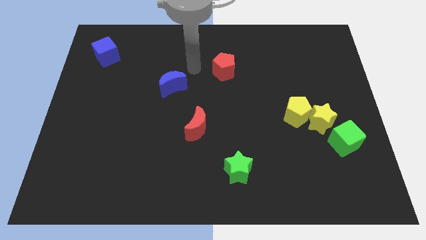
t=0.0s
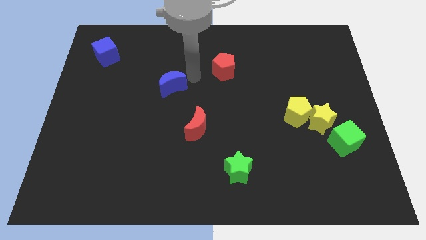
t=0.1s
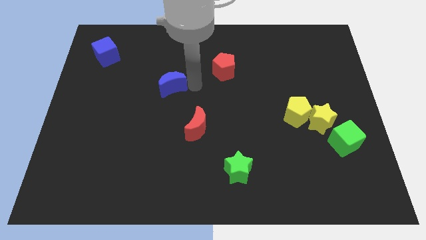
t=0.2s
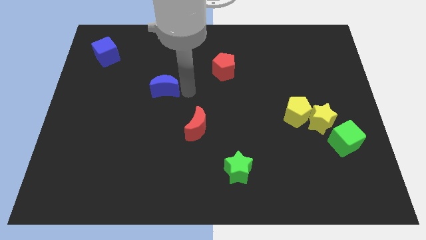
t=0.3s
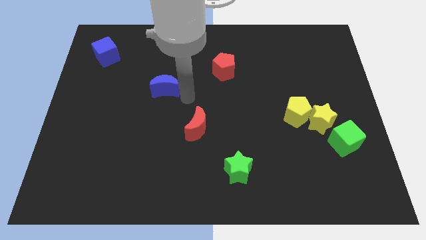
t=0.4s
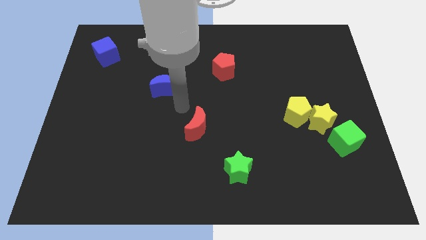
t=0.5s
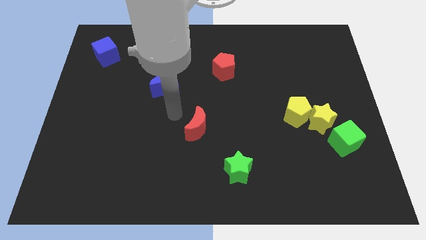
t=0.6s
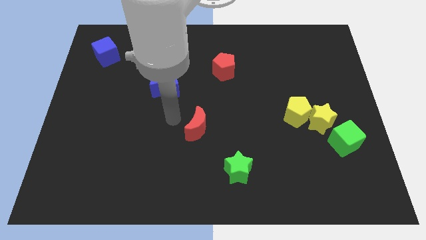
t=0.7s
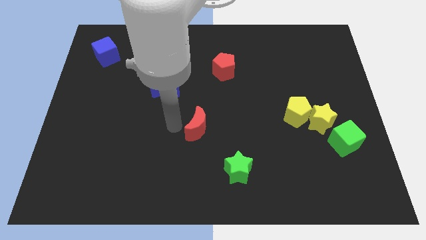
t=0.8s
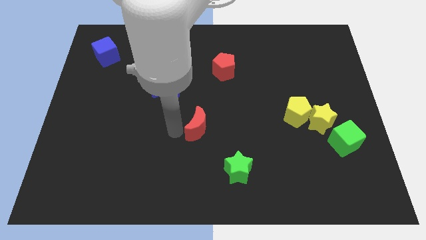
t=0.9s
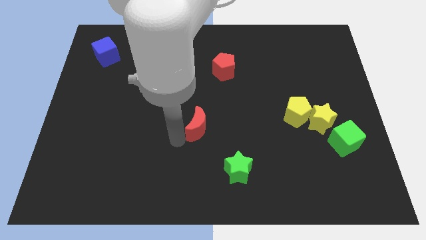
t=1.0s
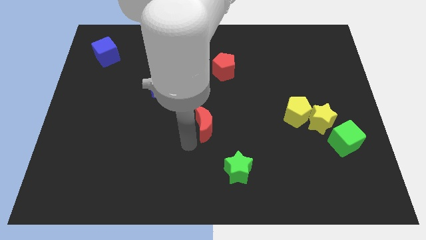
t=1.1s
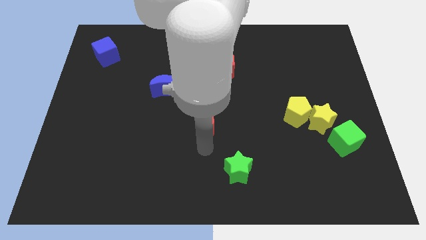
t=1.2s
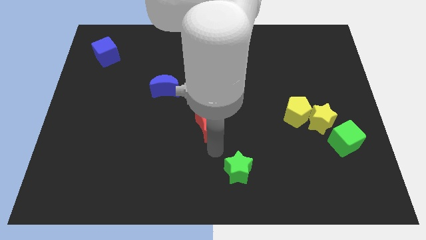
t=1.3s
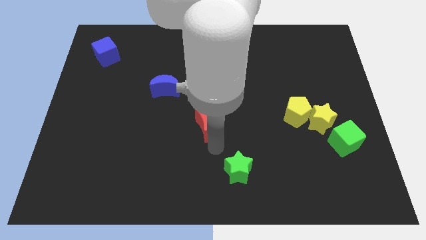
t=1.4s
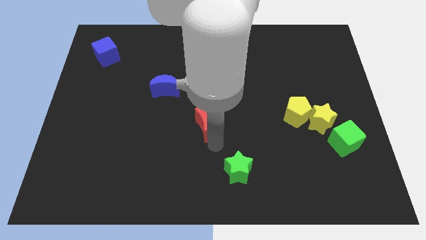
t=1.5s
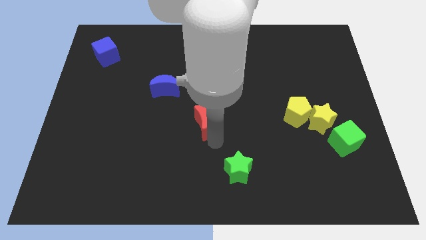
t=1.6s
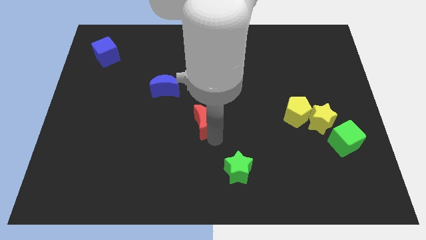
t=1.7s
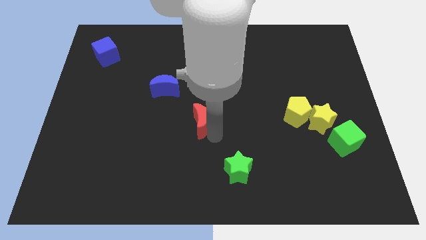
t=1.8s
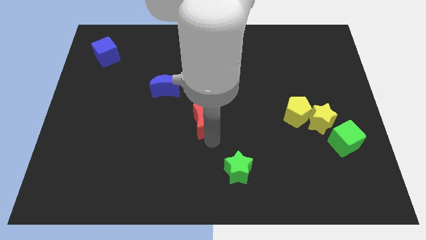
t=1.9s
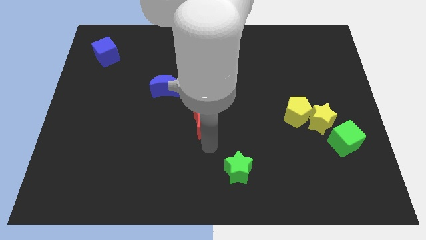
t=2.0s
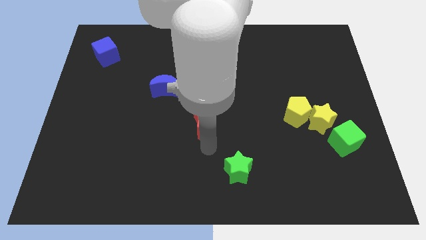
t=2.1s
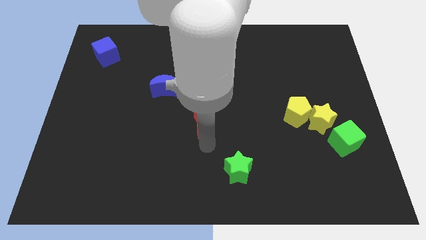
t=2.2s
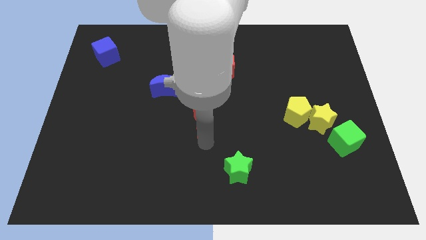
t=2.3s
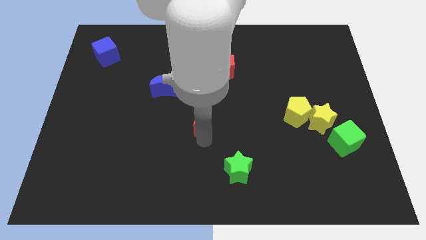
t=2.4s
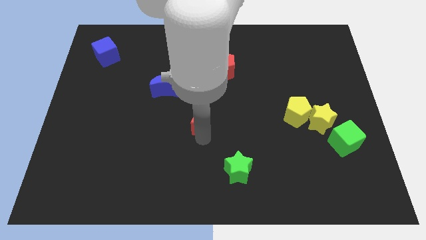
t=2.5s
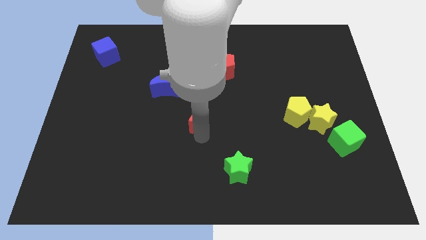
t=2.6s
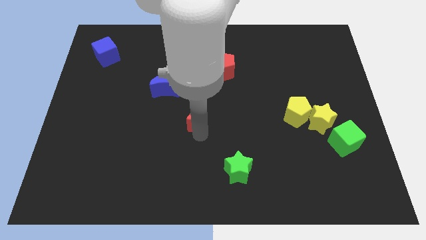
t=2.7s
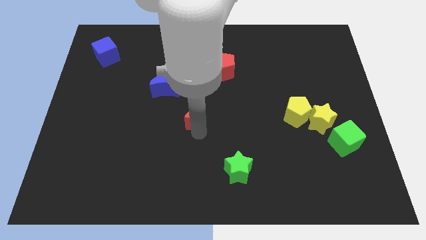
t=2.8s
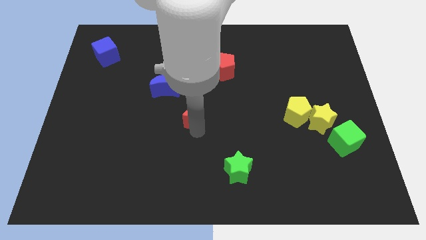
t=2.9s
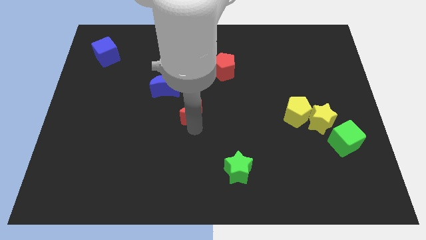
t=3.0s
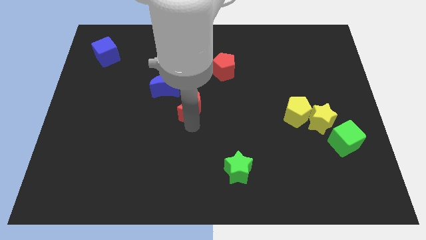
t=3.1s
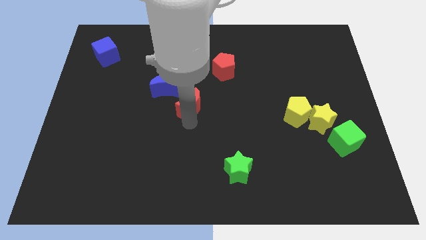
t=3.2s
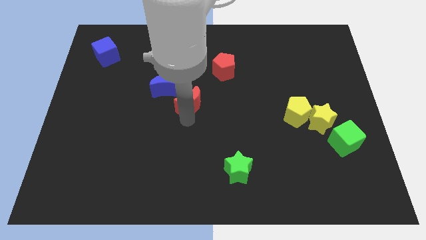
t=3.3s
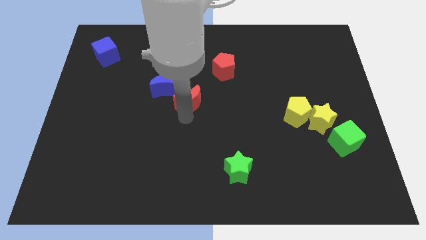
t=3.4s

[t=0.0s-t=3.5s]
move the red moon a little bit up

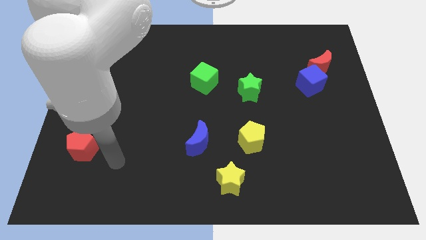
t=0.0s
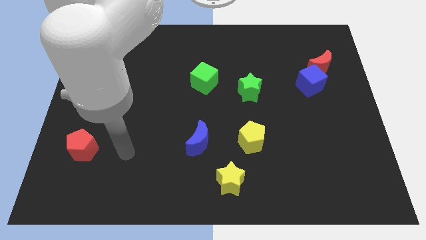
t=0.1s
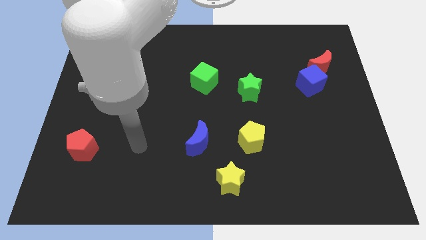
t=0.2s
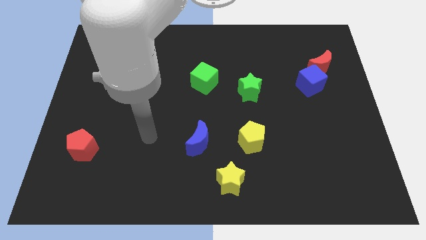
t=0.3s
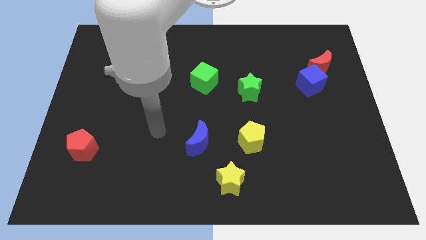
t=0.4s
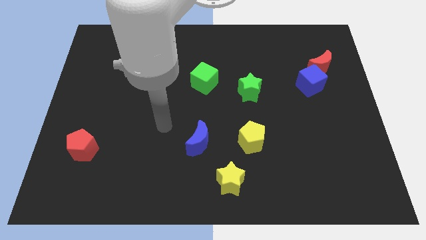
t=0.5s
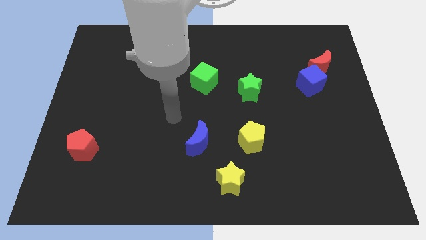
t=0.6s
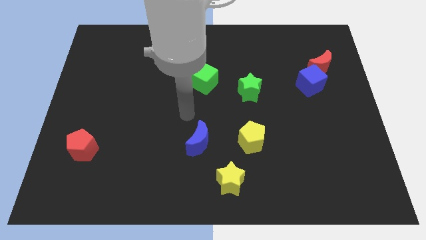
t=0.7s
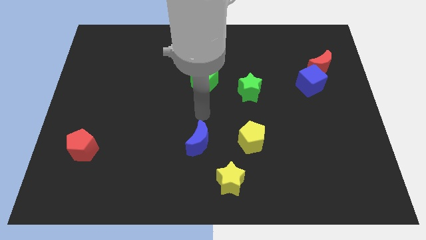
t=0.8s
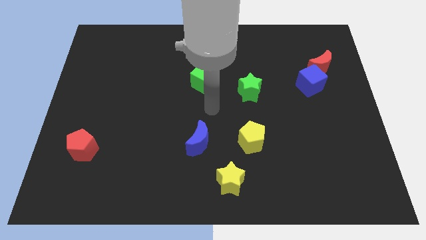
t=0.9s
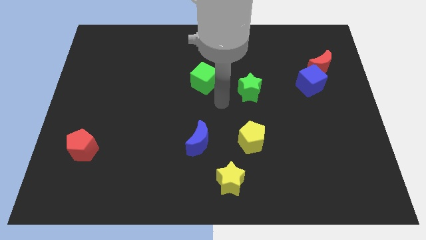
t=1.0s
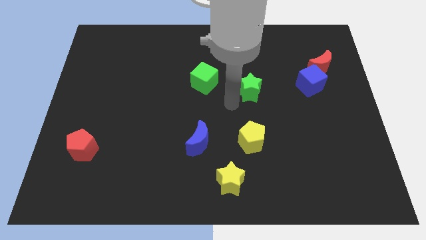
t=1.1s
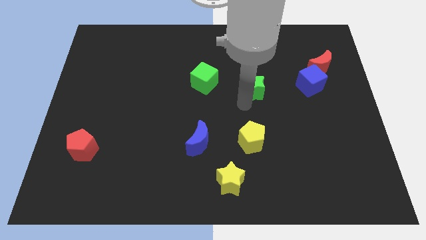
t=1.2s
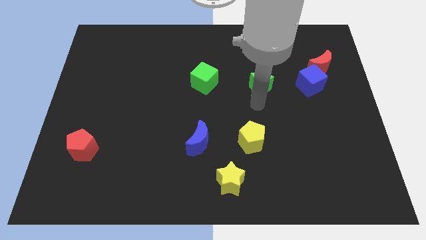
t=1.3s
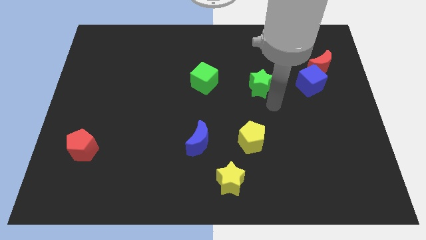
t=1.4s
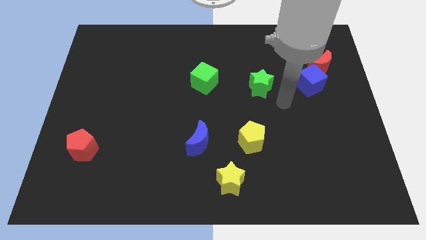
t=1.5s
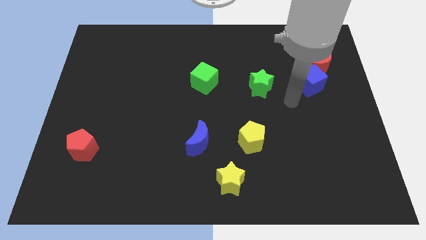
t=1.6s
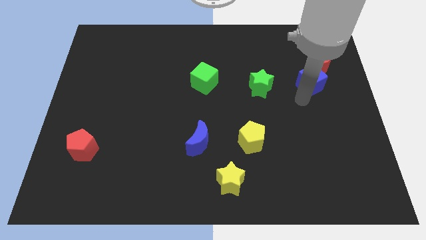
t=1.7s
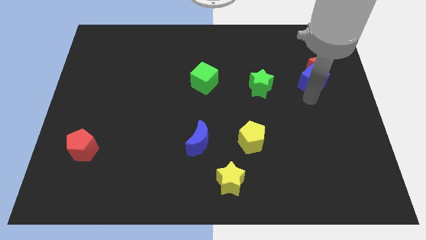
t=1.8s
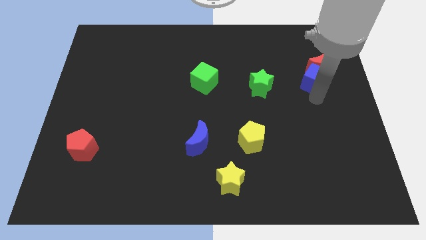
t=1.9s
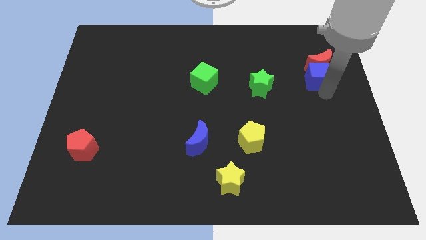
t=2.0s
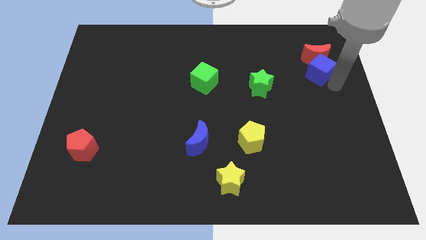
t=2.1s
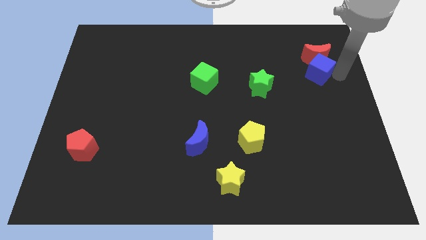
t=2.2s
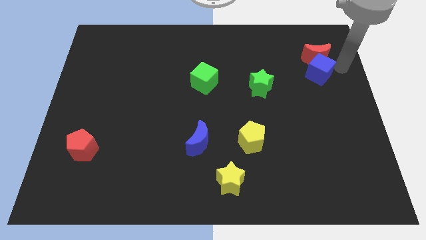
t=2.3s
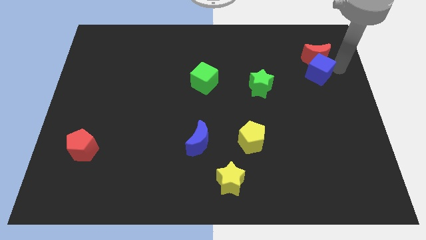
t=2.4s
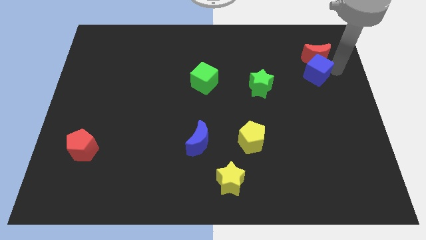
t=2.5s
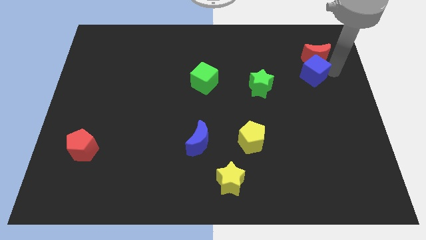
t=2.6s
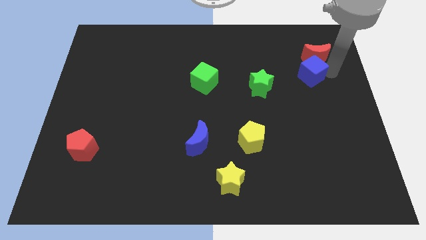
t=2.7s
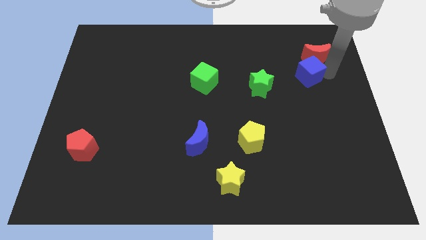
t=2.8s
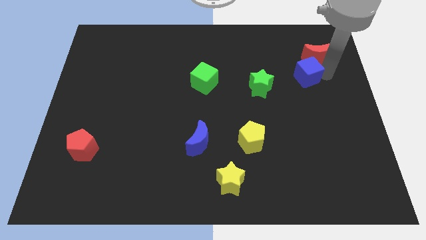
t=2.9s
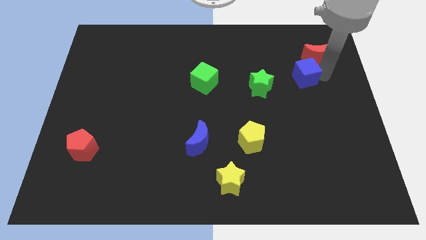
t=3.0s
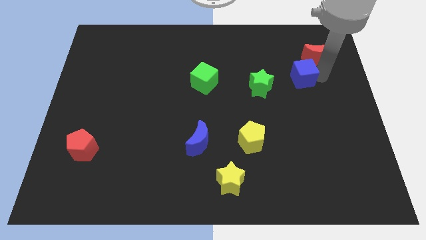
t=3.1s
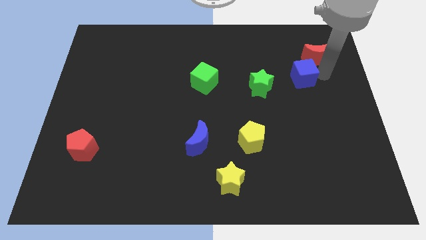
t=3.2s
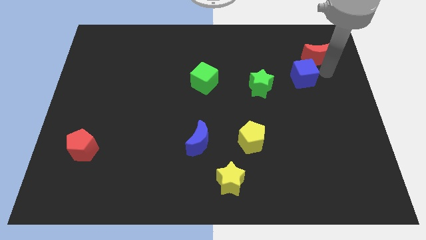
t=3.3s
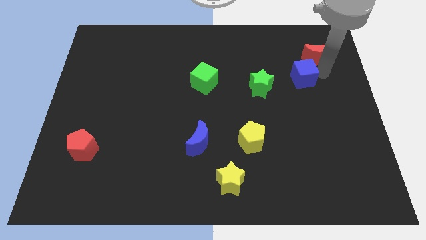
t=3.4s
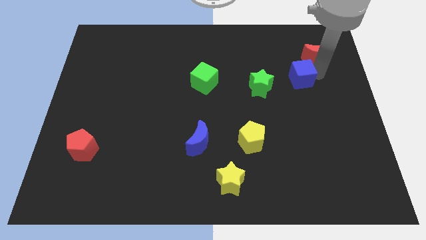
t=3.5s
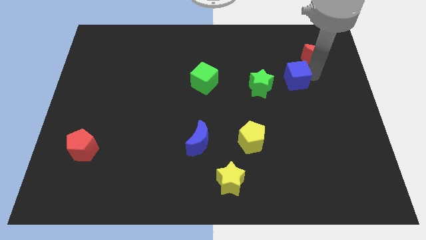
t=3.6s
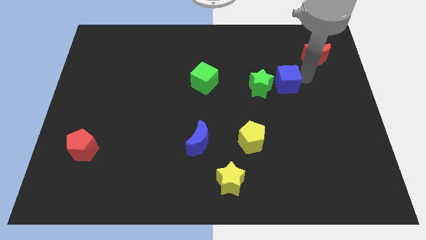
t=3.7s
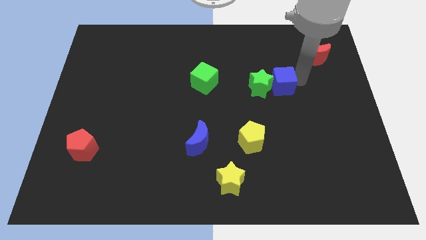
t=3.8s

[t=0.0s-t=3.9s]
move the blue cube to the left a little bit

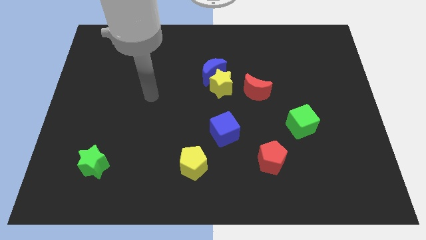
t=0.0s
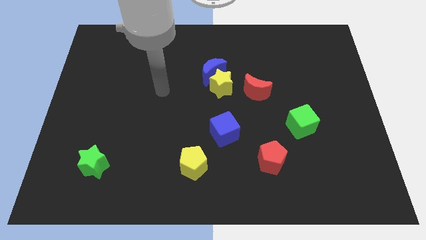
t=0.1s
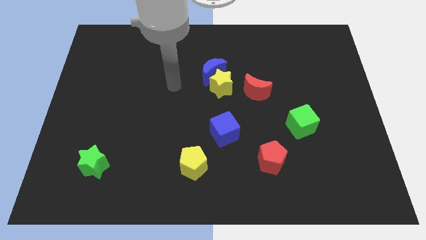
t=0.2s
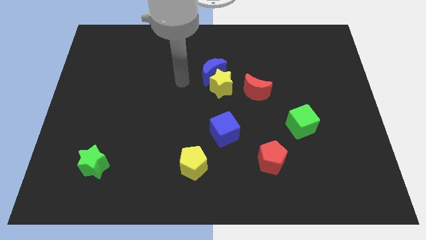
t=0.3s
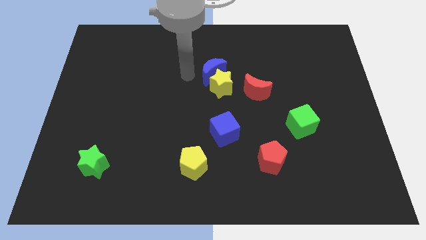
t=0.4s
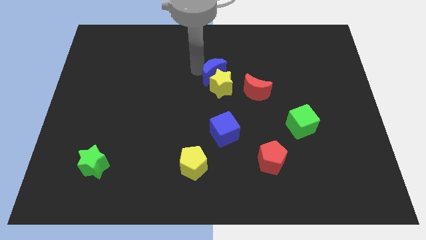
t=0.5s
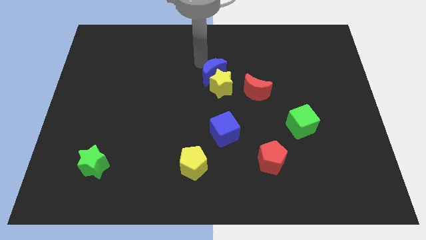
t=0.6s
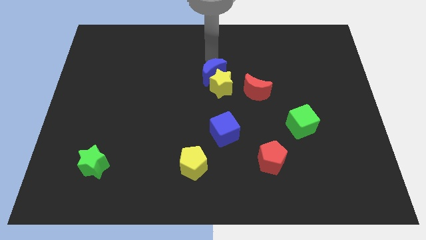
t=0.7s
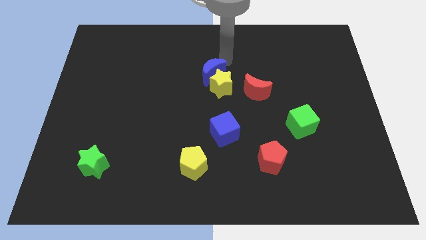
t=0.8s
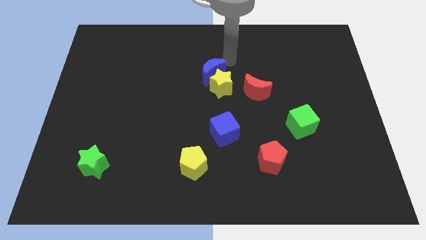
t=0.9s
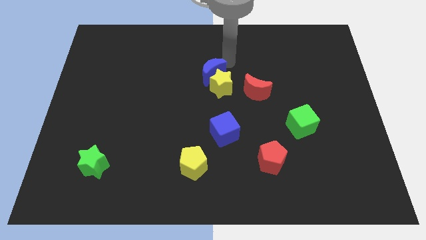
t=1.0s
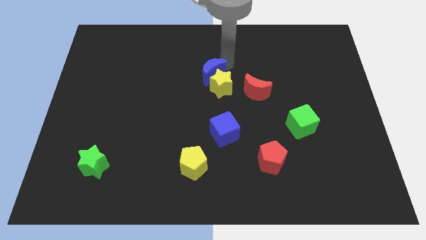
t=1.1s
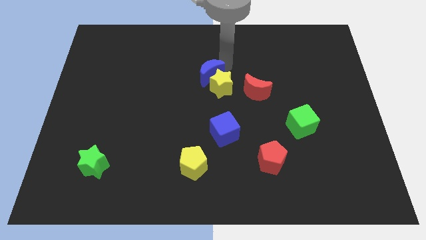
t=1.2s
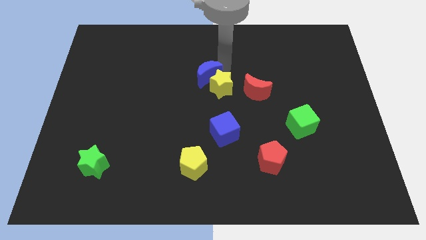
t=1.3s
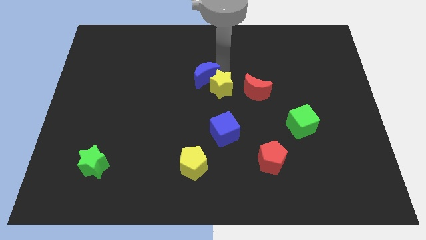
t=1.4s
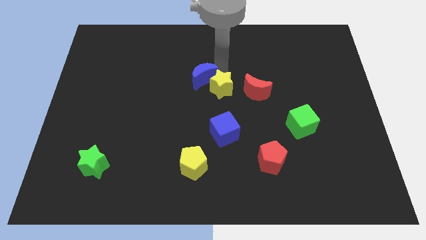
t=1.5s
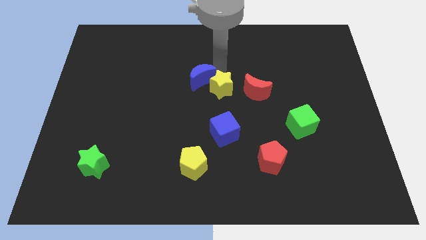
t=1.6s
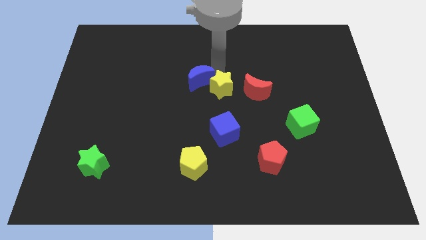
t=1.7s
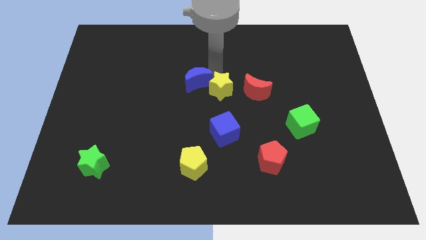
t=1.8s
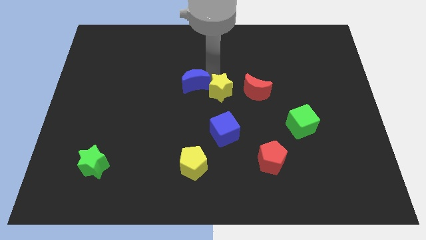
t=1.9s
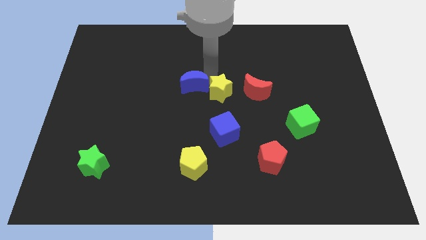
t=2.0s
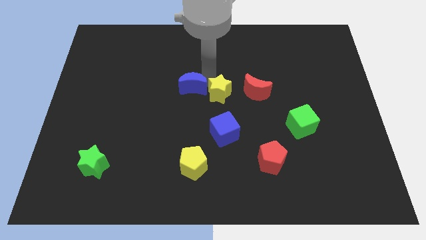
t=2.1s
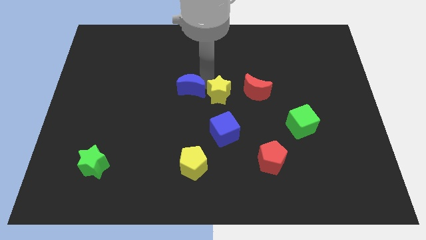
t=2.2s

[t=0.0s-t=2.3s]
move the blue moon a bit downwards and to the left
